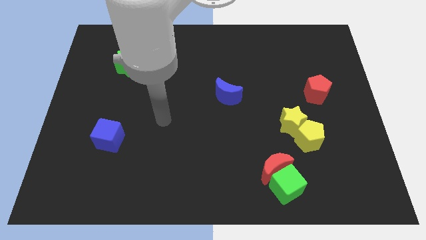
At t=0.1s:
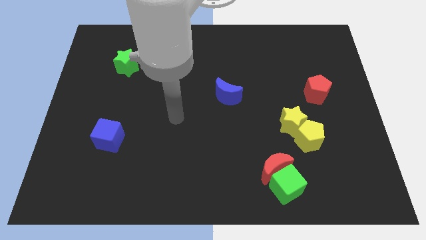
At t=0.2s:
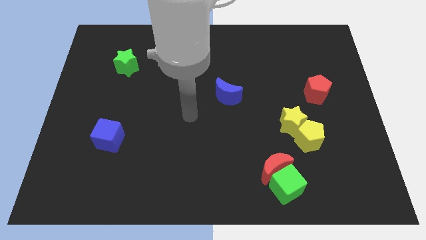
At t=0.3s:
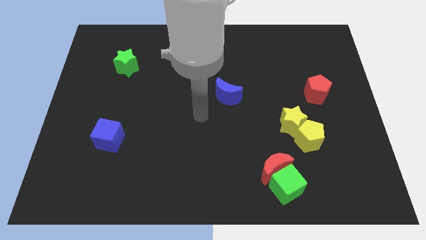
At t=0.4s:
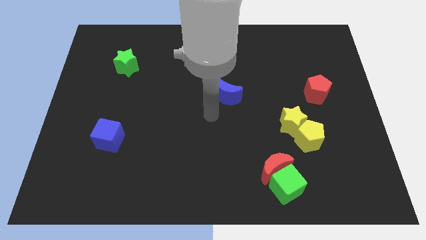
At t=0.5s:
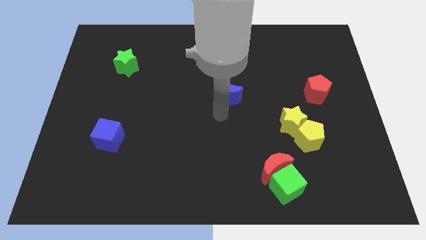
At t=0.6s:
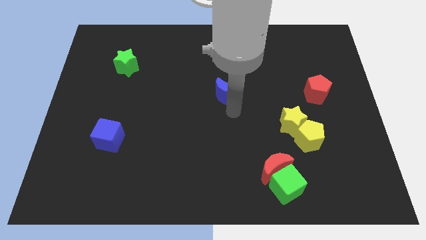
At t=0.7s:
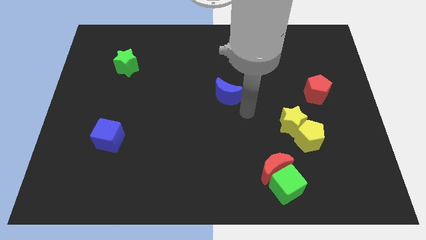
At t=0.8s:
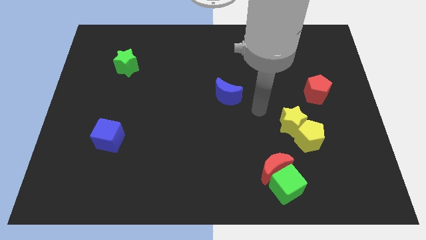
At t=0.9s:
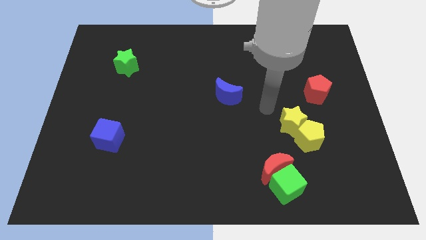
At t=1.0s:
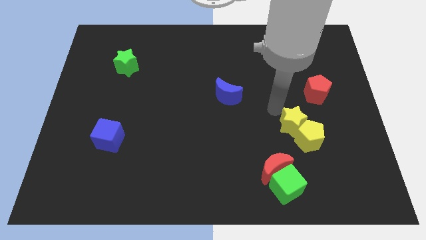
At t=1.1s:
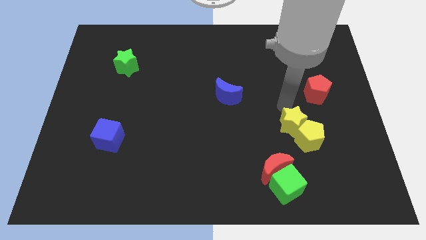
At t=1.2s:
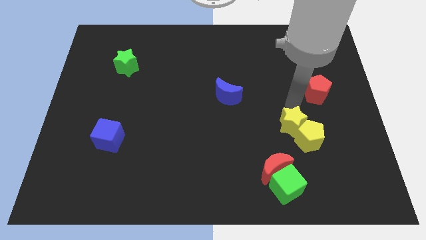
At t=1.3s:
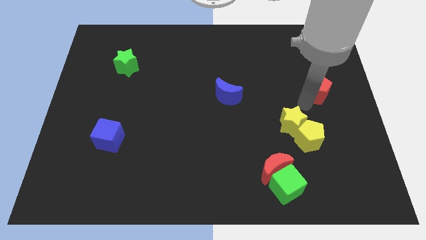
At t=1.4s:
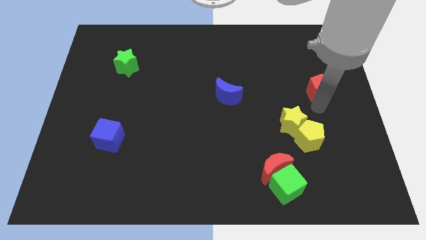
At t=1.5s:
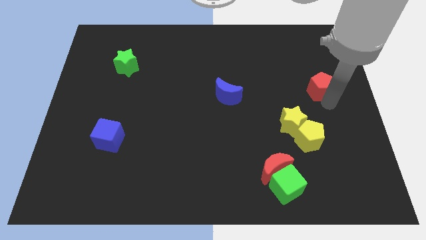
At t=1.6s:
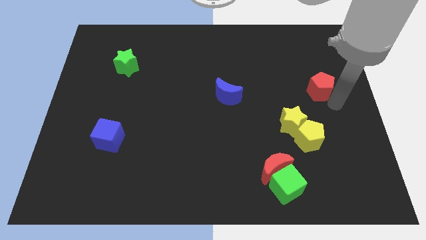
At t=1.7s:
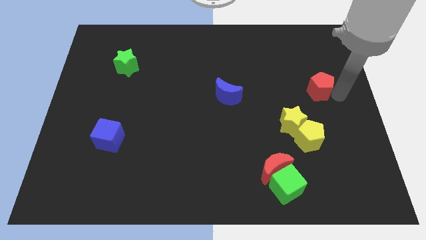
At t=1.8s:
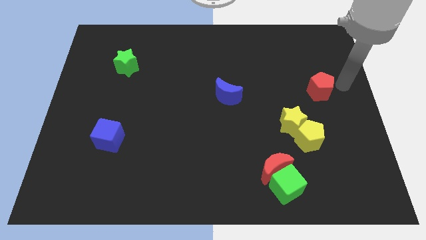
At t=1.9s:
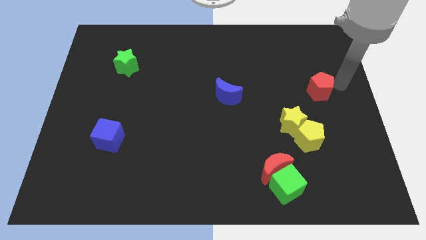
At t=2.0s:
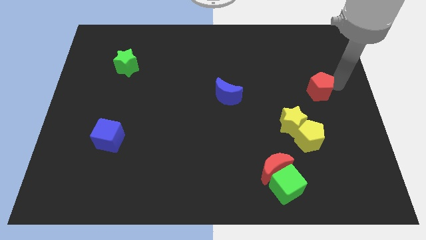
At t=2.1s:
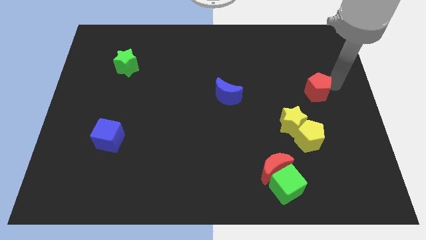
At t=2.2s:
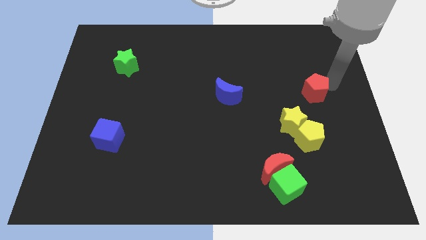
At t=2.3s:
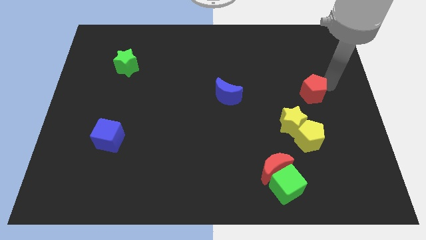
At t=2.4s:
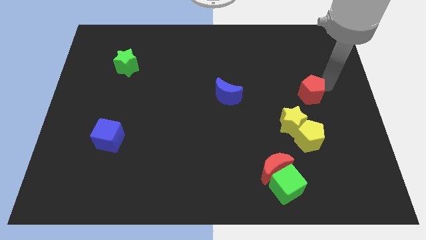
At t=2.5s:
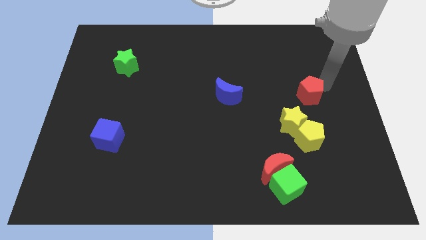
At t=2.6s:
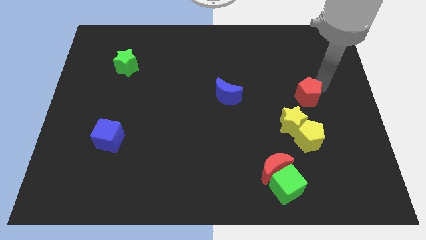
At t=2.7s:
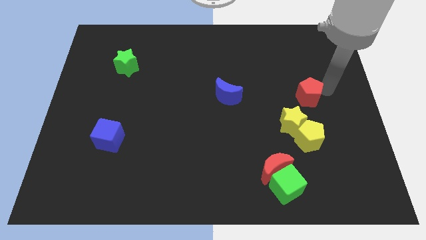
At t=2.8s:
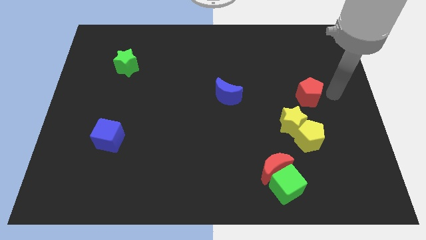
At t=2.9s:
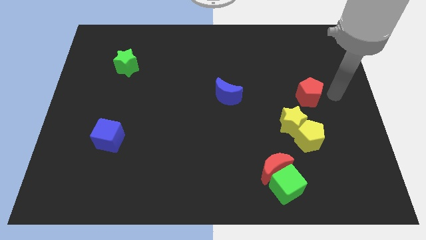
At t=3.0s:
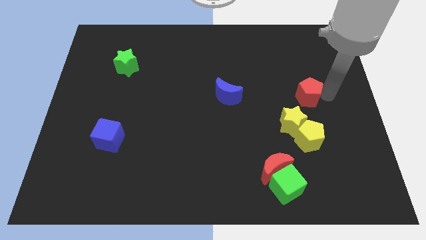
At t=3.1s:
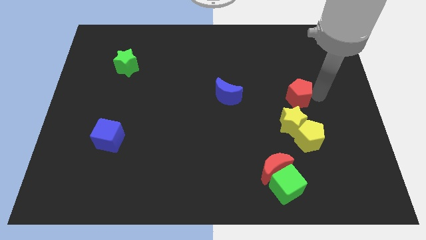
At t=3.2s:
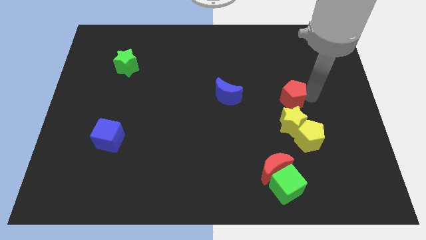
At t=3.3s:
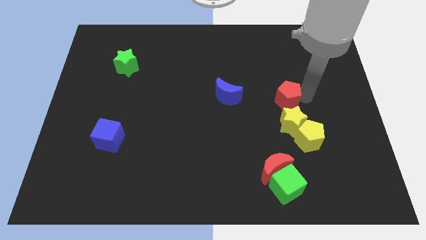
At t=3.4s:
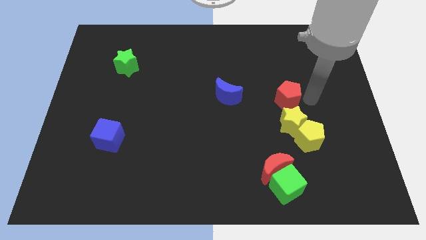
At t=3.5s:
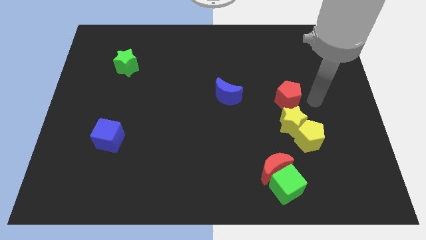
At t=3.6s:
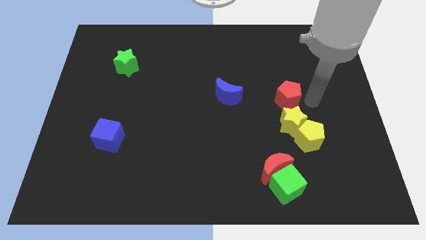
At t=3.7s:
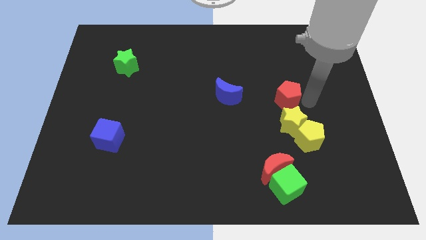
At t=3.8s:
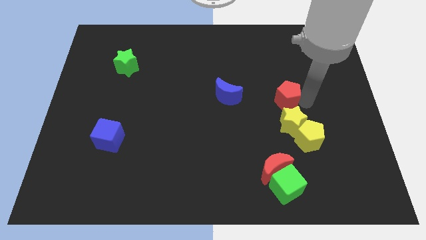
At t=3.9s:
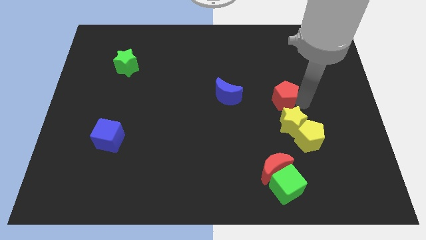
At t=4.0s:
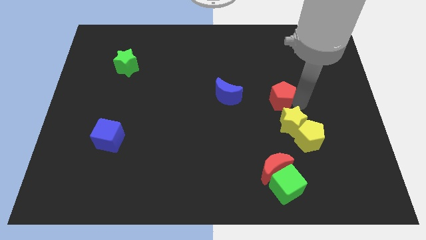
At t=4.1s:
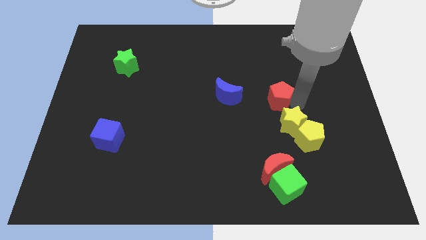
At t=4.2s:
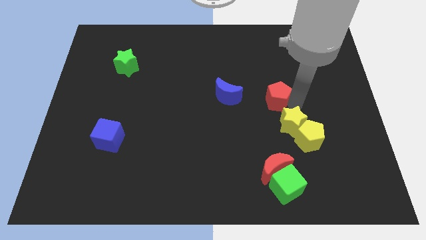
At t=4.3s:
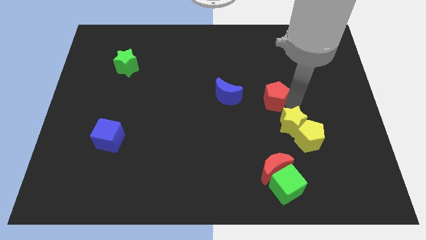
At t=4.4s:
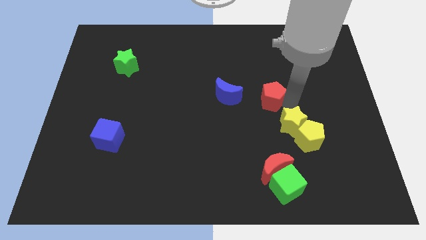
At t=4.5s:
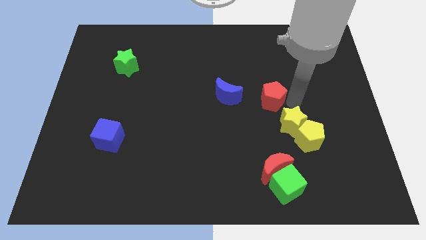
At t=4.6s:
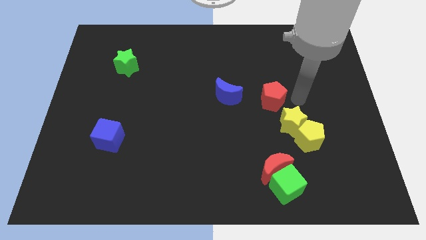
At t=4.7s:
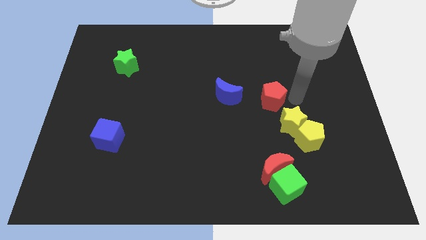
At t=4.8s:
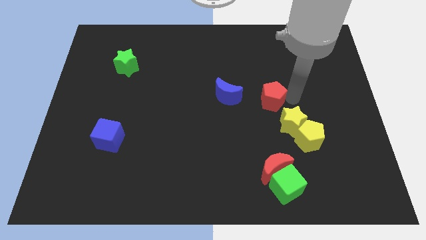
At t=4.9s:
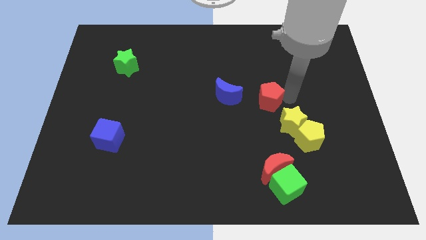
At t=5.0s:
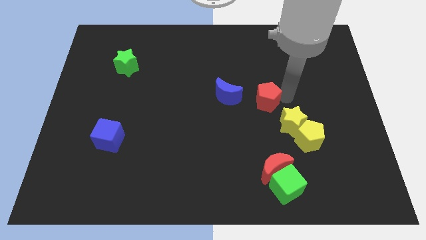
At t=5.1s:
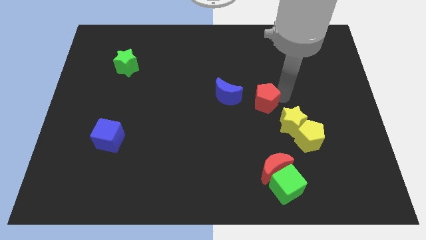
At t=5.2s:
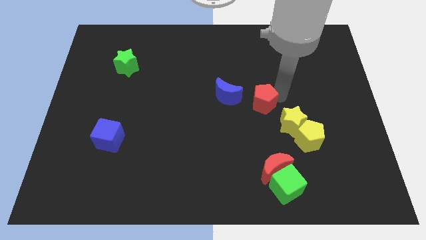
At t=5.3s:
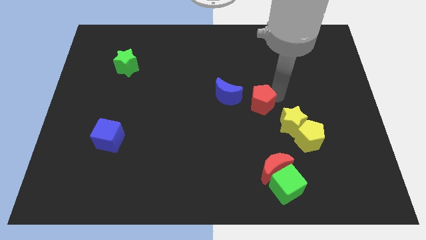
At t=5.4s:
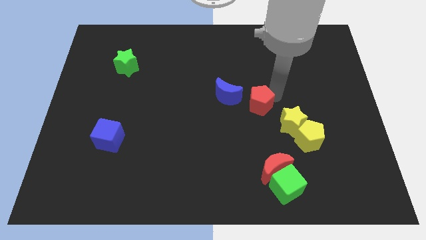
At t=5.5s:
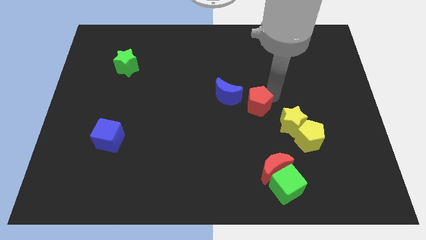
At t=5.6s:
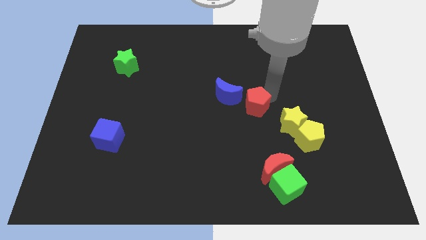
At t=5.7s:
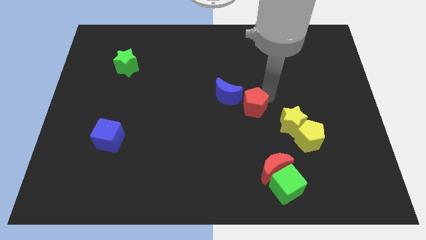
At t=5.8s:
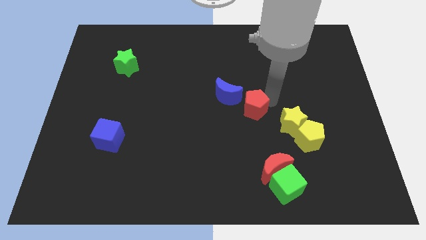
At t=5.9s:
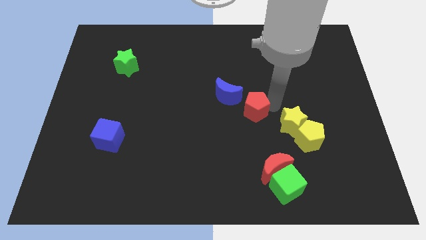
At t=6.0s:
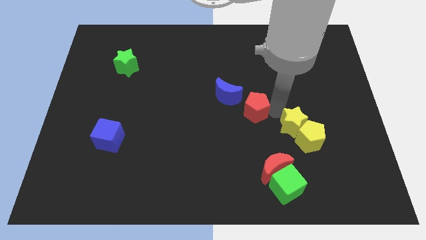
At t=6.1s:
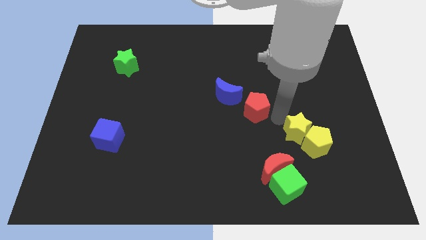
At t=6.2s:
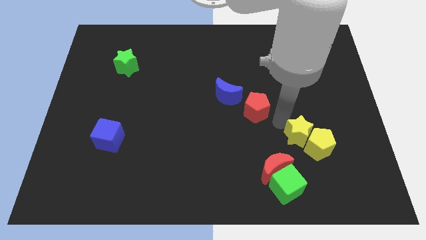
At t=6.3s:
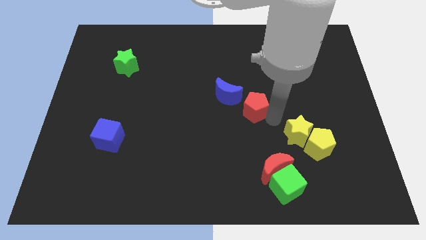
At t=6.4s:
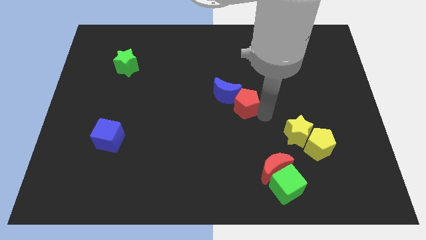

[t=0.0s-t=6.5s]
push the red pentagon close to the blue moon
